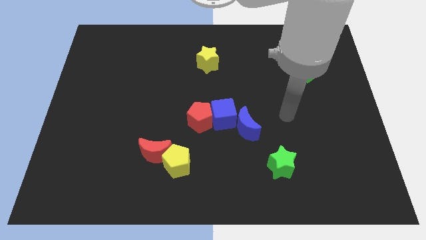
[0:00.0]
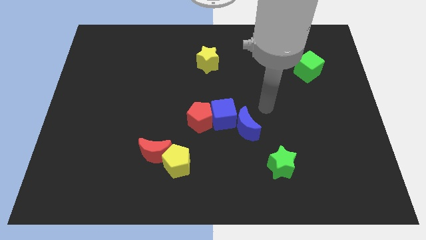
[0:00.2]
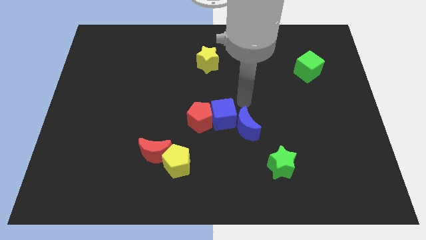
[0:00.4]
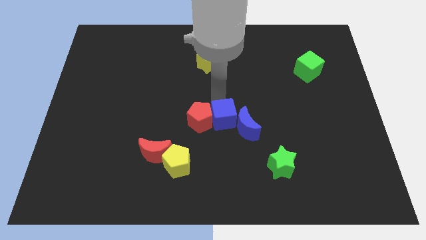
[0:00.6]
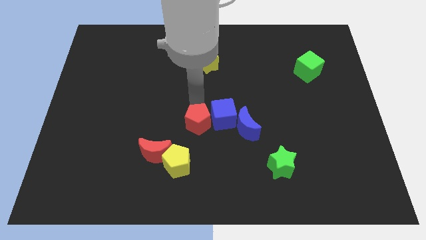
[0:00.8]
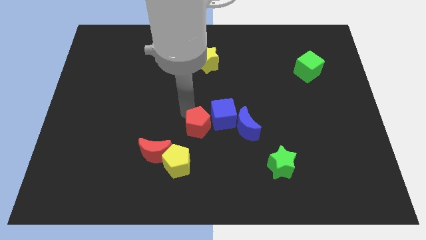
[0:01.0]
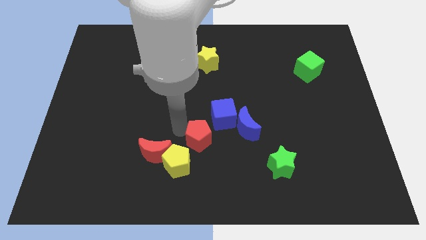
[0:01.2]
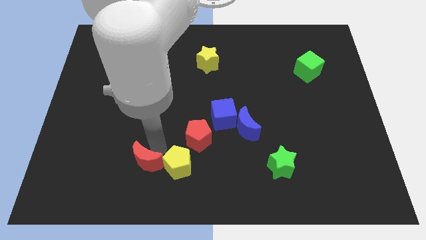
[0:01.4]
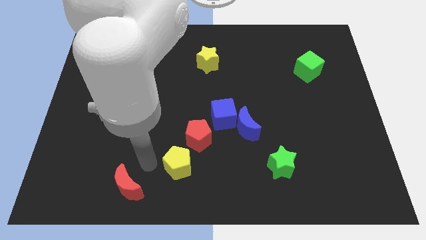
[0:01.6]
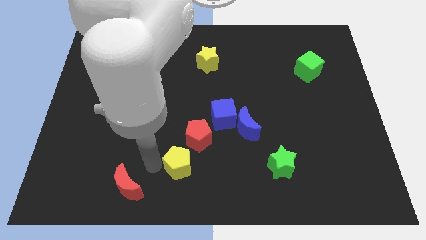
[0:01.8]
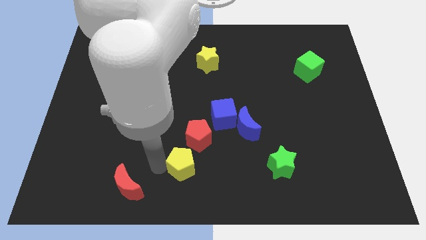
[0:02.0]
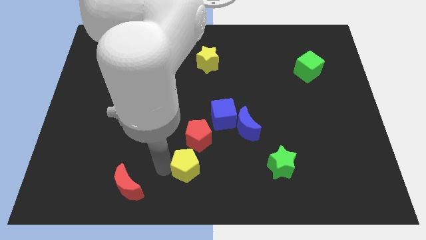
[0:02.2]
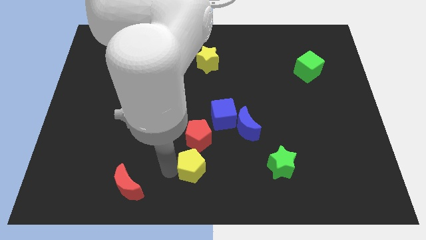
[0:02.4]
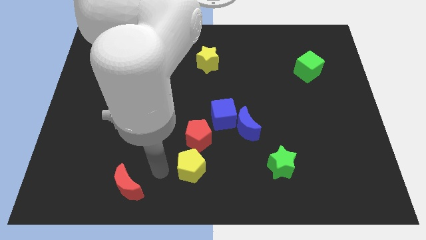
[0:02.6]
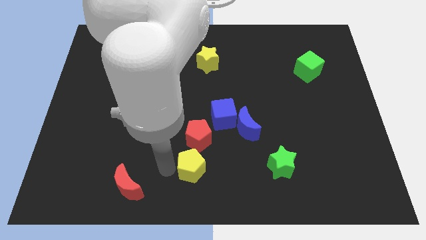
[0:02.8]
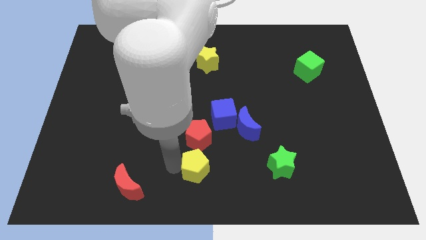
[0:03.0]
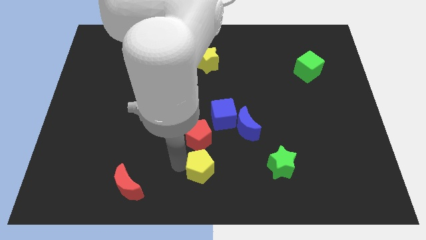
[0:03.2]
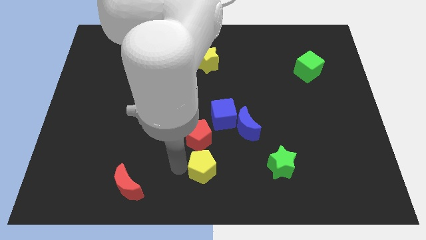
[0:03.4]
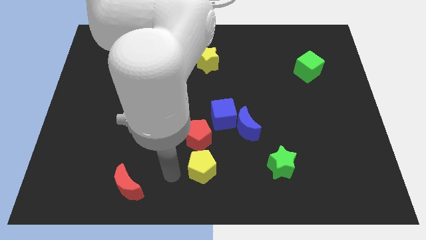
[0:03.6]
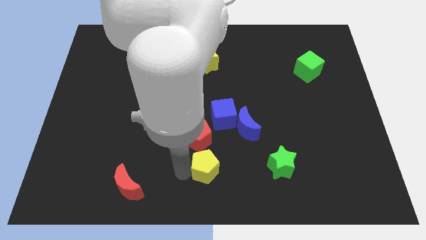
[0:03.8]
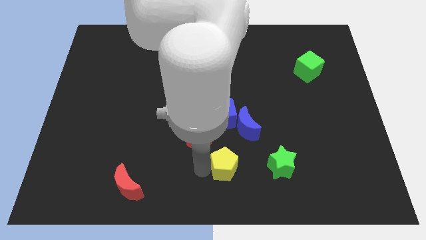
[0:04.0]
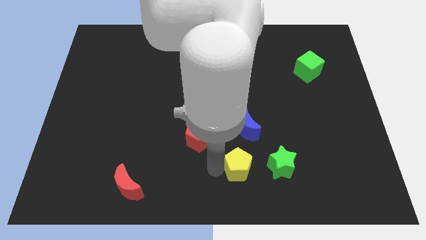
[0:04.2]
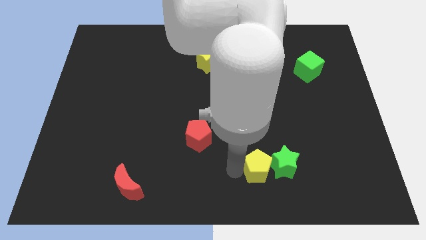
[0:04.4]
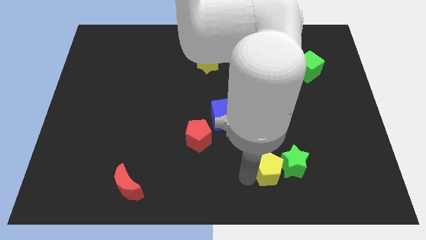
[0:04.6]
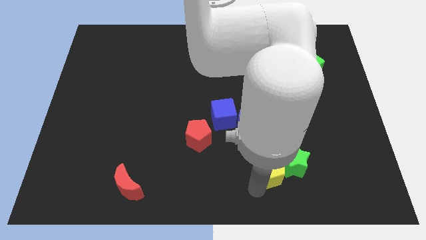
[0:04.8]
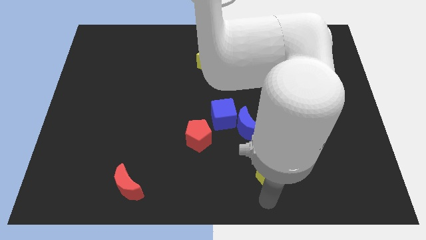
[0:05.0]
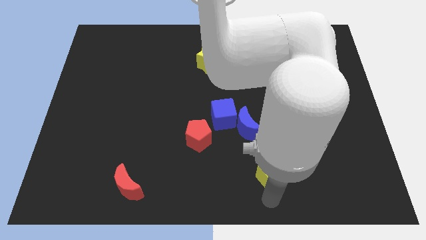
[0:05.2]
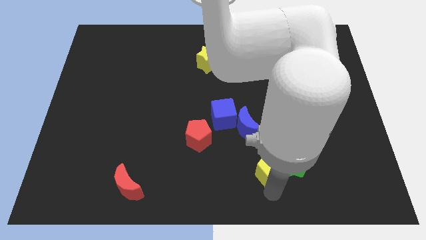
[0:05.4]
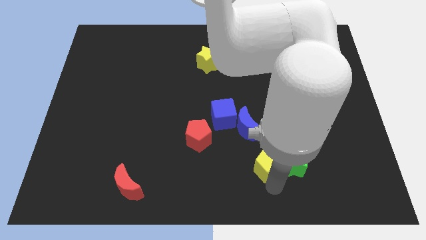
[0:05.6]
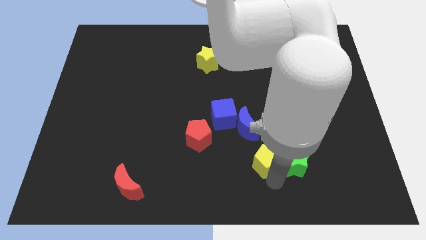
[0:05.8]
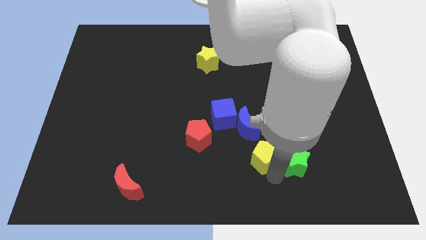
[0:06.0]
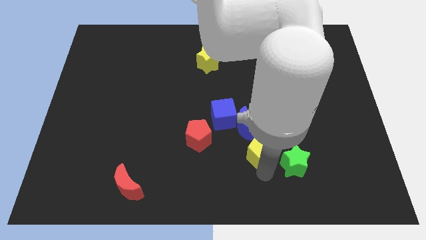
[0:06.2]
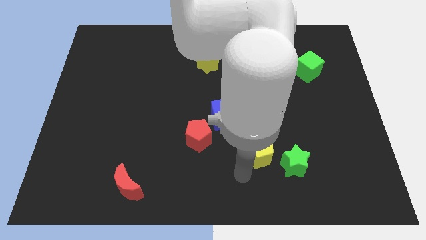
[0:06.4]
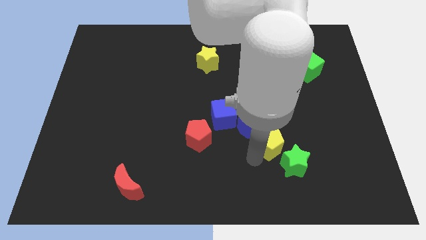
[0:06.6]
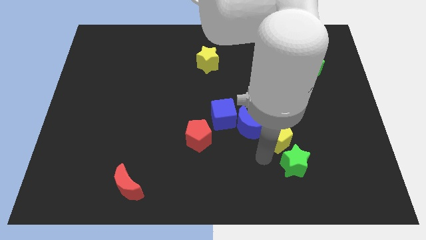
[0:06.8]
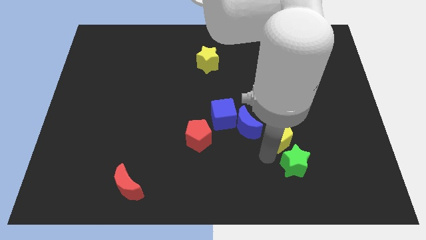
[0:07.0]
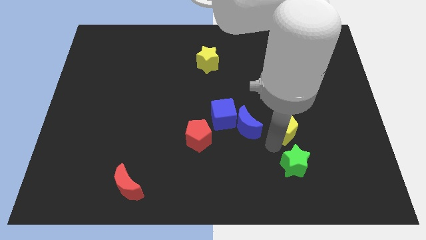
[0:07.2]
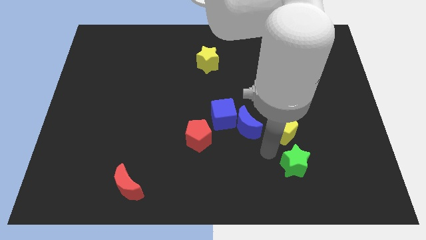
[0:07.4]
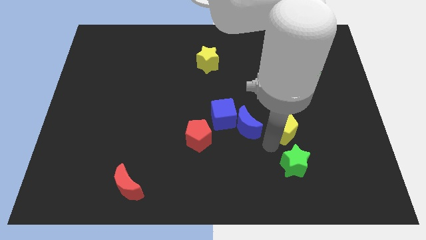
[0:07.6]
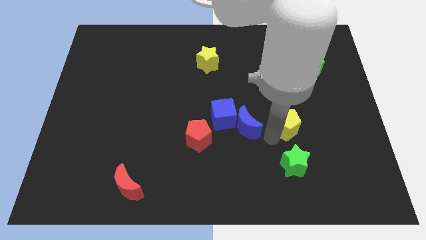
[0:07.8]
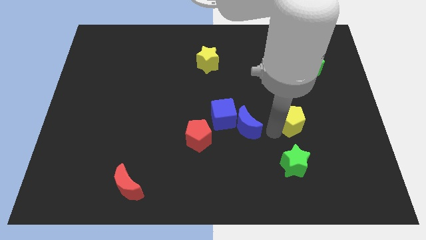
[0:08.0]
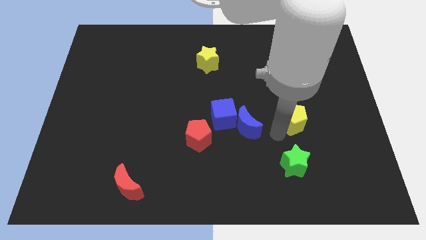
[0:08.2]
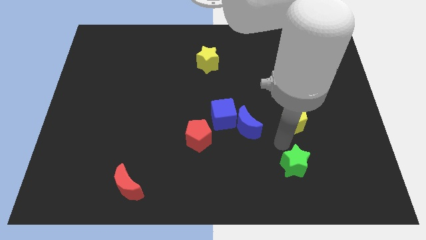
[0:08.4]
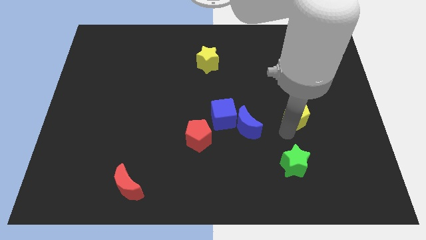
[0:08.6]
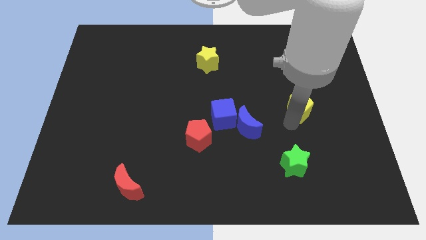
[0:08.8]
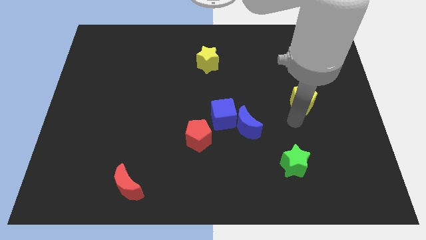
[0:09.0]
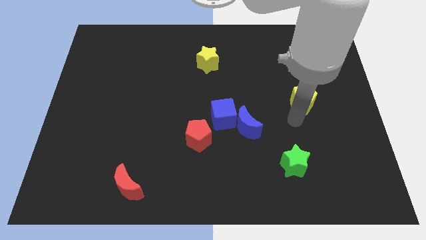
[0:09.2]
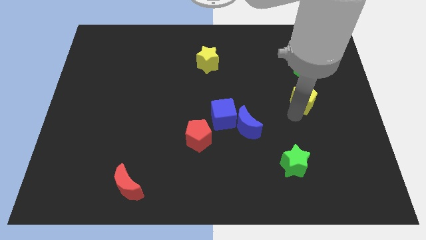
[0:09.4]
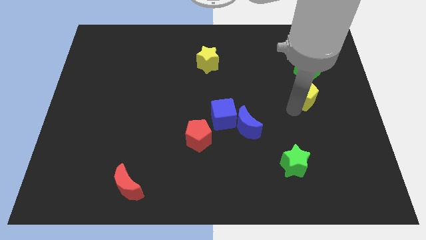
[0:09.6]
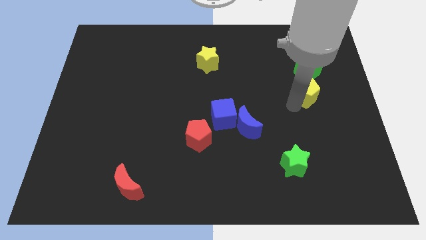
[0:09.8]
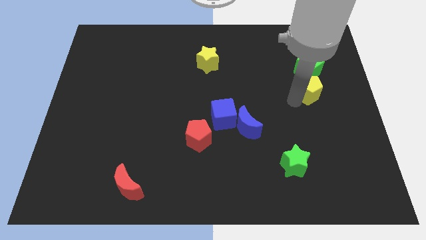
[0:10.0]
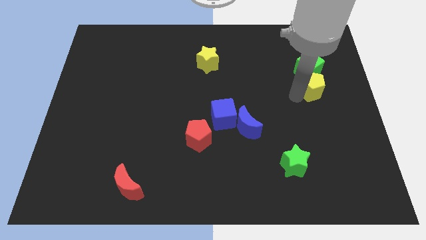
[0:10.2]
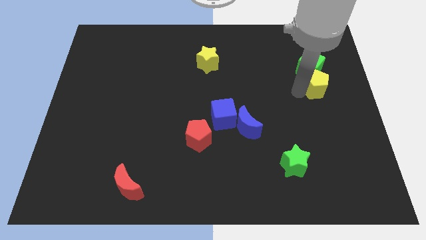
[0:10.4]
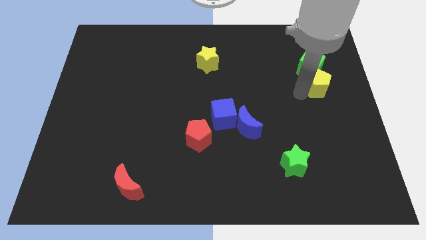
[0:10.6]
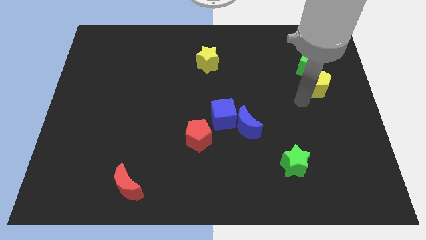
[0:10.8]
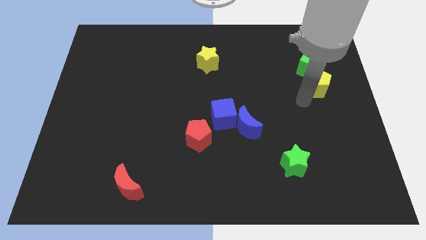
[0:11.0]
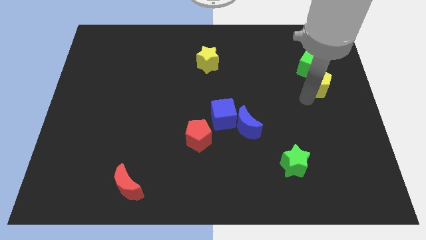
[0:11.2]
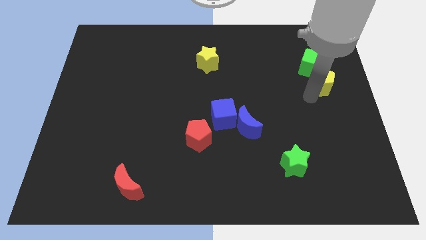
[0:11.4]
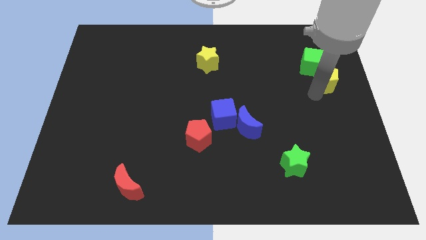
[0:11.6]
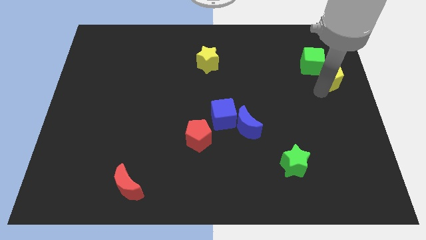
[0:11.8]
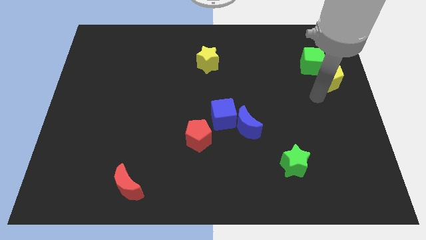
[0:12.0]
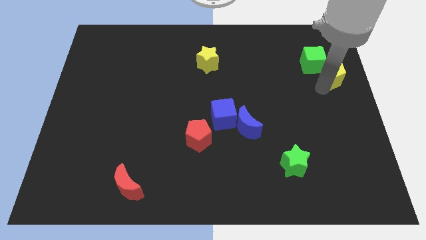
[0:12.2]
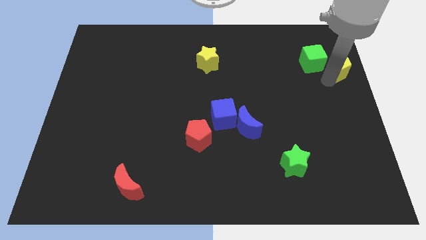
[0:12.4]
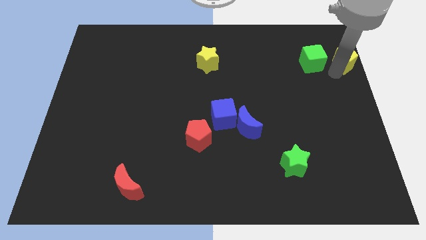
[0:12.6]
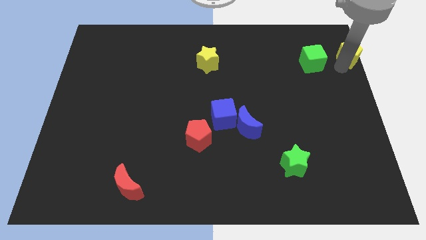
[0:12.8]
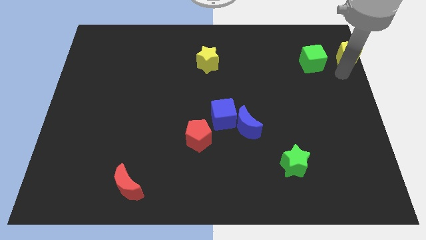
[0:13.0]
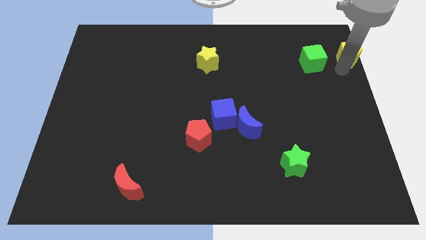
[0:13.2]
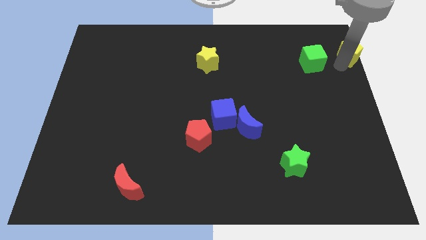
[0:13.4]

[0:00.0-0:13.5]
push the yellow pentagon to the upper right corner
